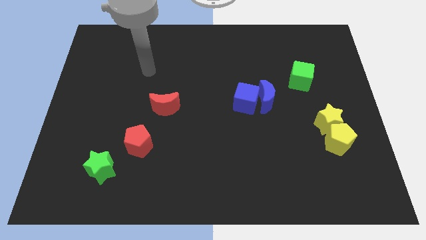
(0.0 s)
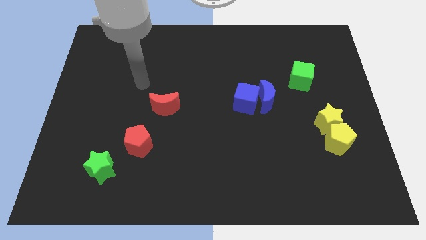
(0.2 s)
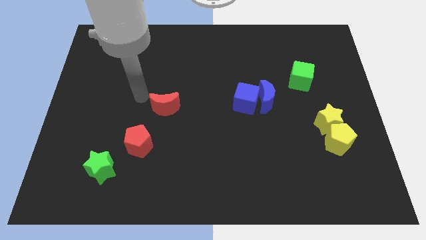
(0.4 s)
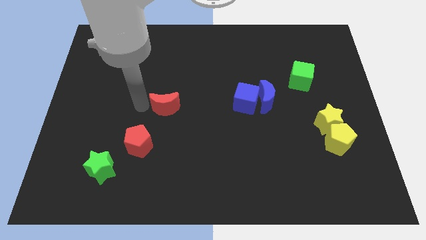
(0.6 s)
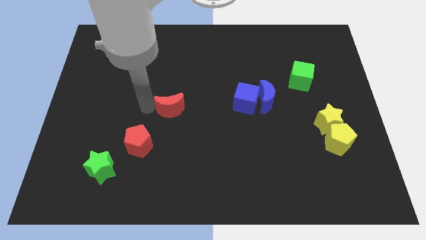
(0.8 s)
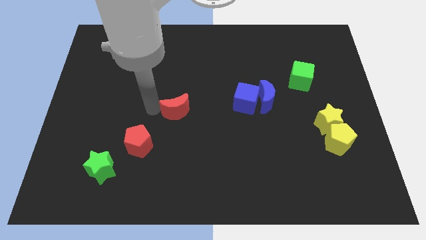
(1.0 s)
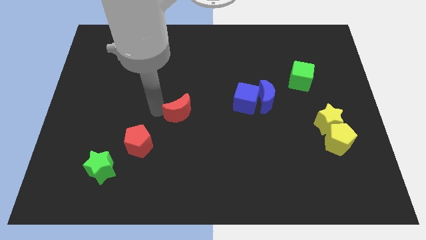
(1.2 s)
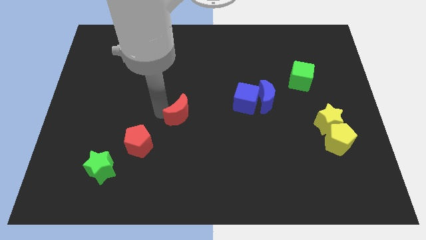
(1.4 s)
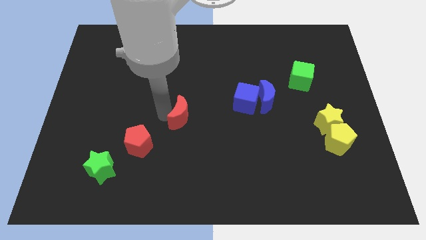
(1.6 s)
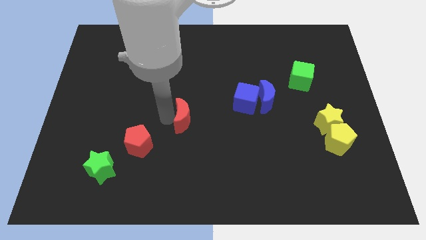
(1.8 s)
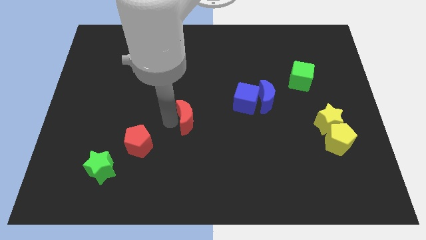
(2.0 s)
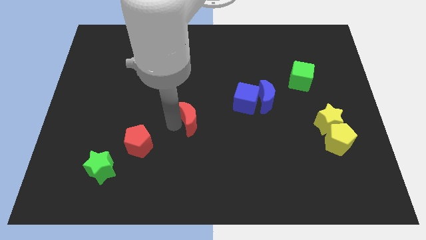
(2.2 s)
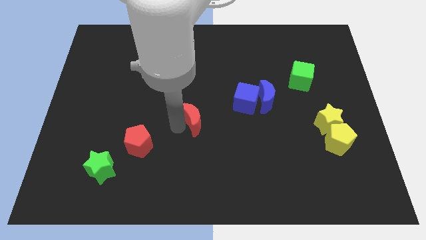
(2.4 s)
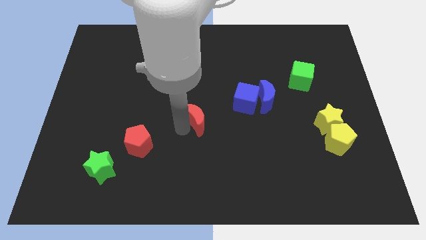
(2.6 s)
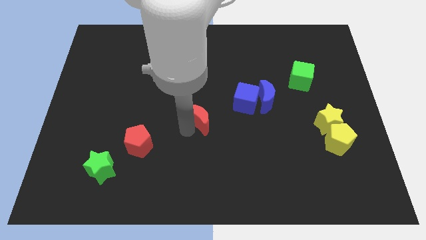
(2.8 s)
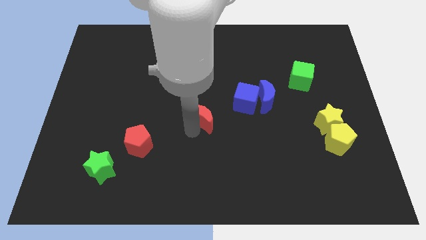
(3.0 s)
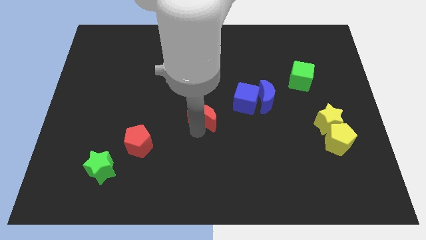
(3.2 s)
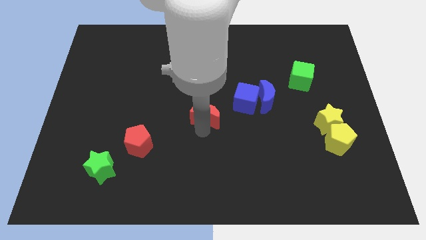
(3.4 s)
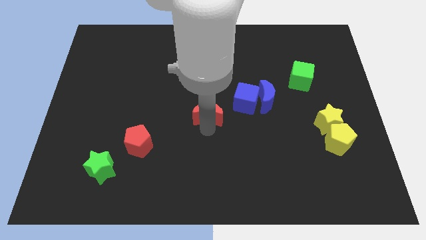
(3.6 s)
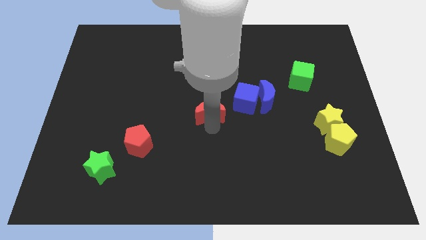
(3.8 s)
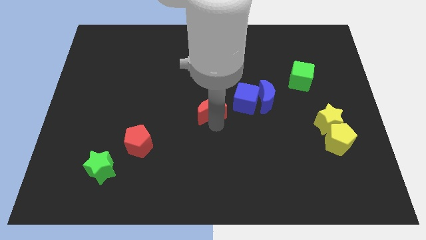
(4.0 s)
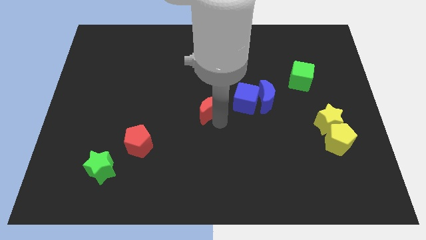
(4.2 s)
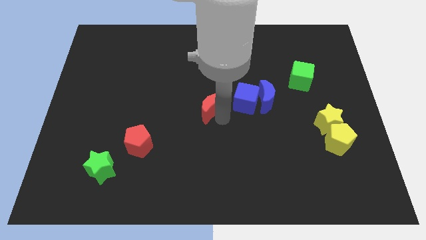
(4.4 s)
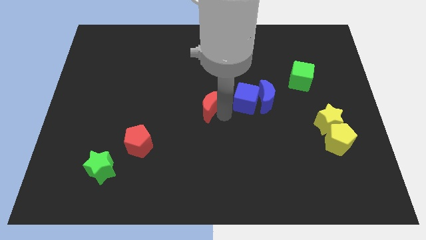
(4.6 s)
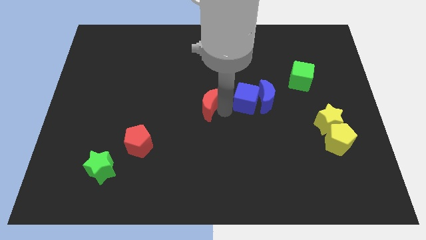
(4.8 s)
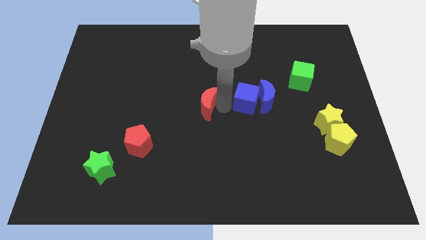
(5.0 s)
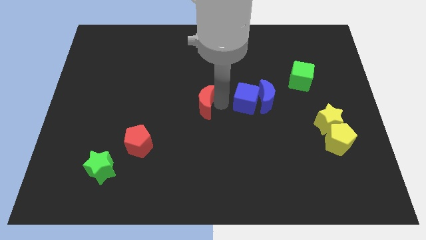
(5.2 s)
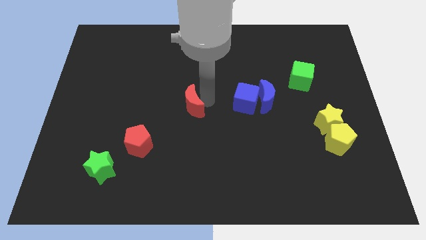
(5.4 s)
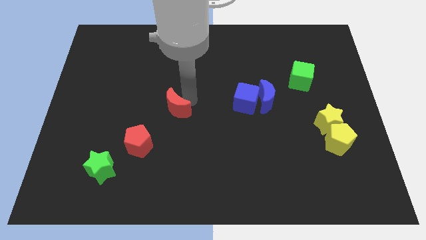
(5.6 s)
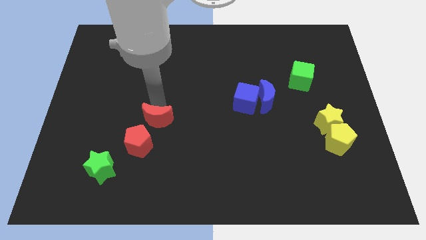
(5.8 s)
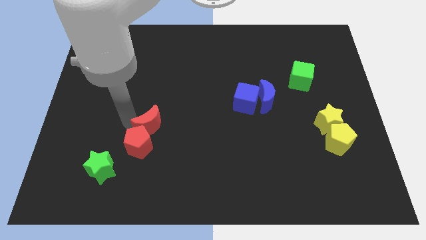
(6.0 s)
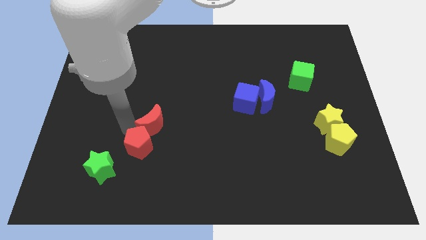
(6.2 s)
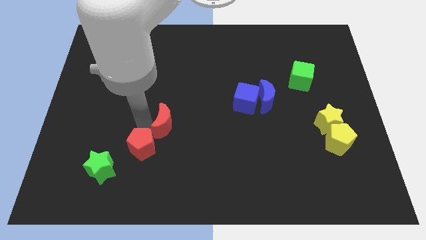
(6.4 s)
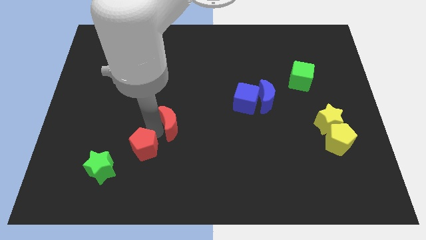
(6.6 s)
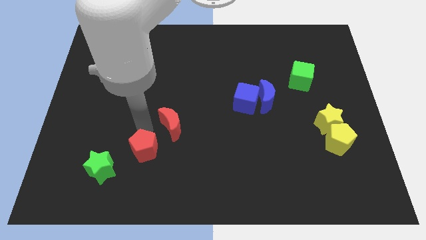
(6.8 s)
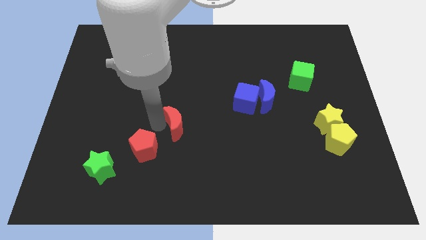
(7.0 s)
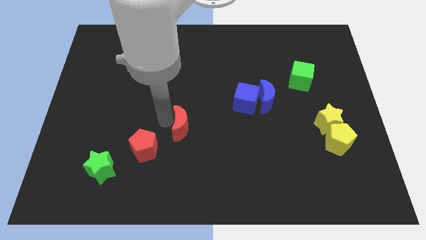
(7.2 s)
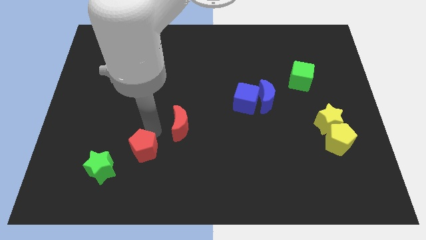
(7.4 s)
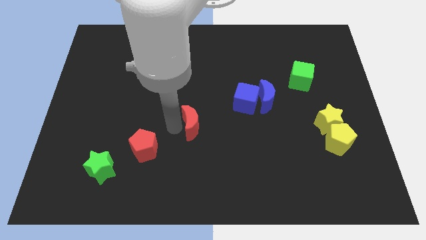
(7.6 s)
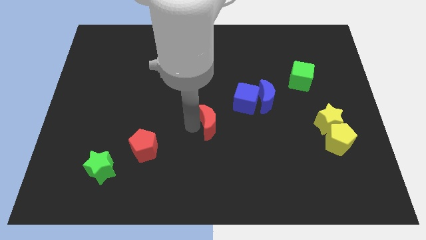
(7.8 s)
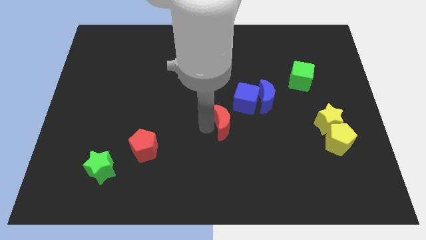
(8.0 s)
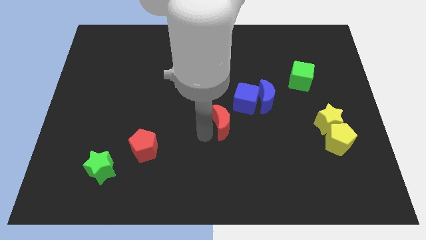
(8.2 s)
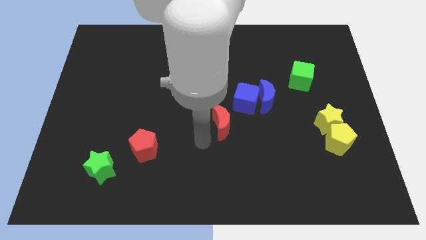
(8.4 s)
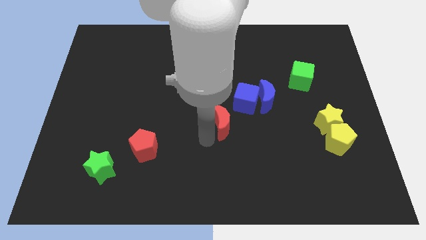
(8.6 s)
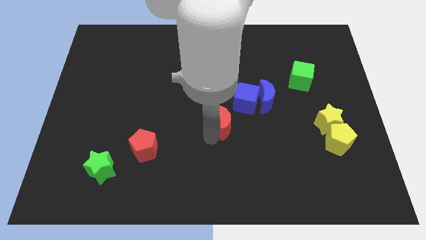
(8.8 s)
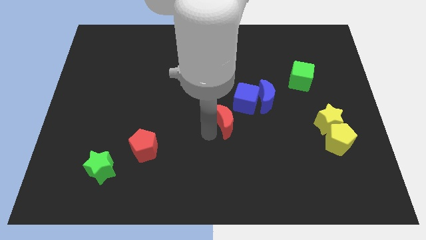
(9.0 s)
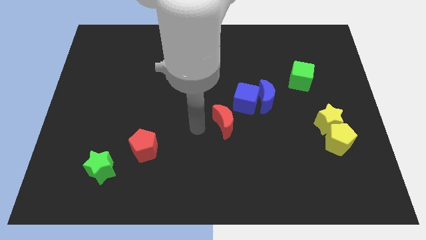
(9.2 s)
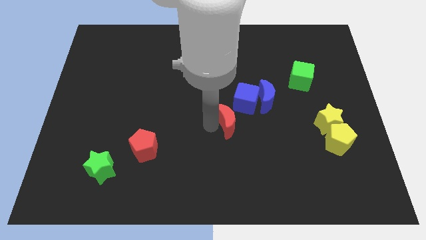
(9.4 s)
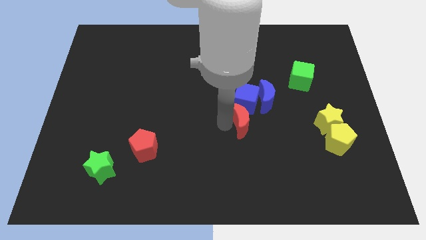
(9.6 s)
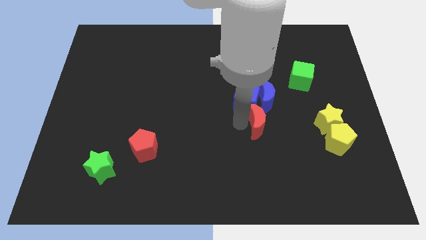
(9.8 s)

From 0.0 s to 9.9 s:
move the red moon to the right

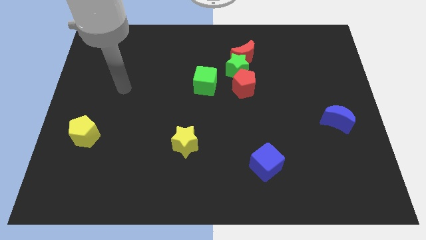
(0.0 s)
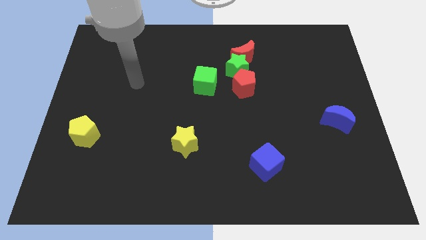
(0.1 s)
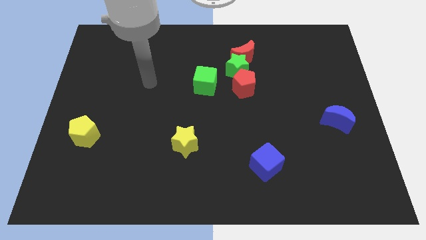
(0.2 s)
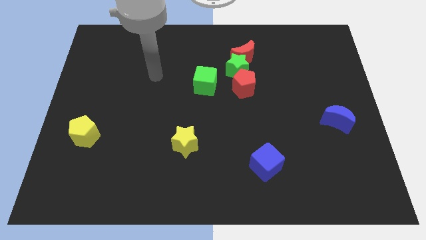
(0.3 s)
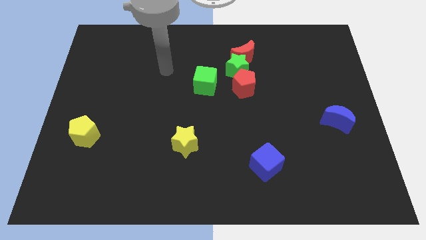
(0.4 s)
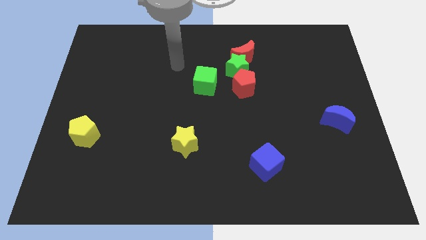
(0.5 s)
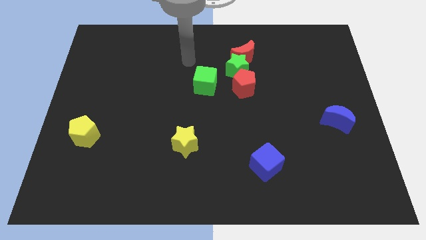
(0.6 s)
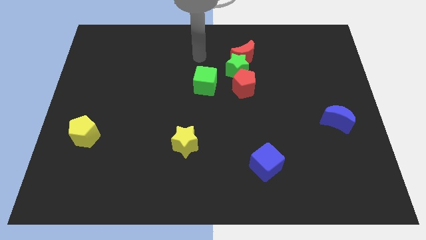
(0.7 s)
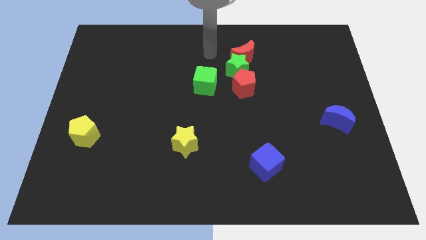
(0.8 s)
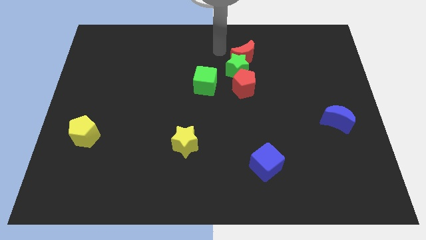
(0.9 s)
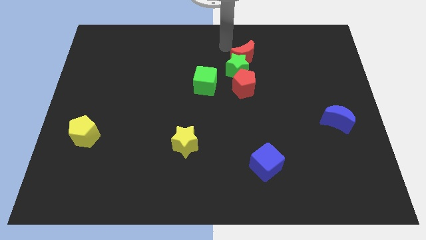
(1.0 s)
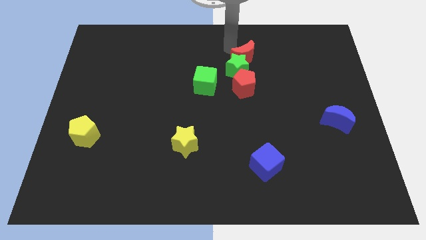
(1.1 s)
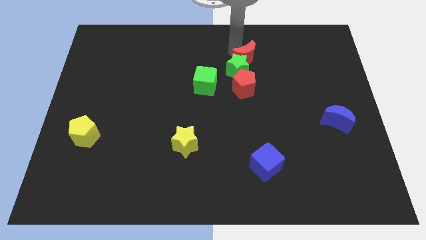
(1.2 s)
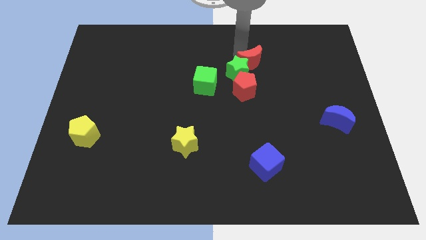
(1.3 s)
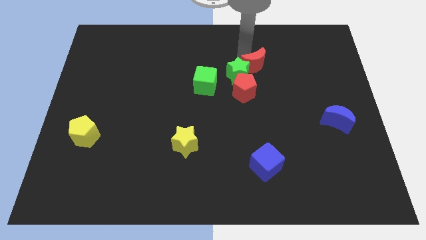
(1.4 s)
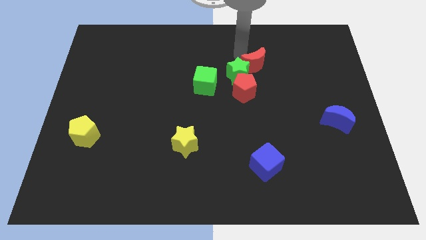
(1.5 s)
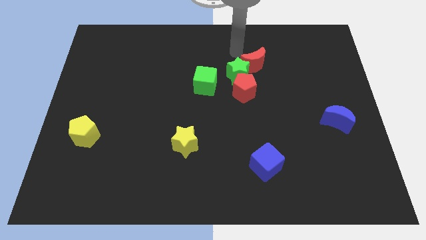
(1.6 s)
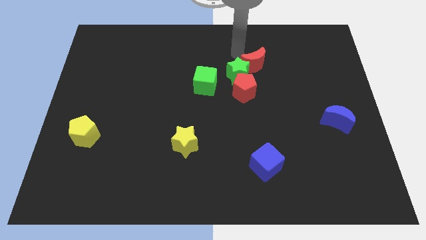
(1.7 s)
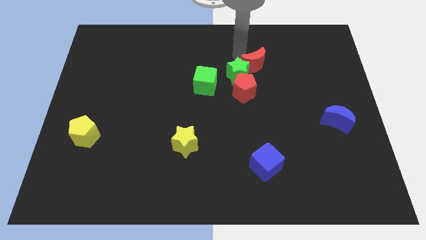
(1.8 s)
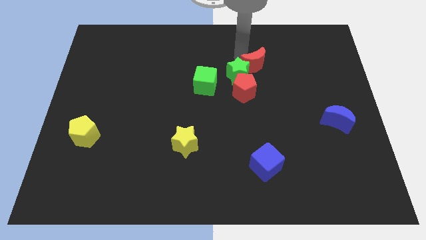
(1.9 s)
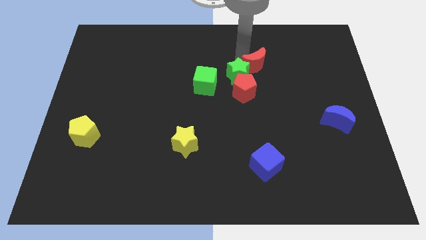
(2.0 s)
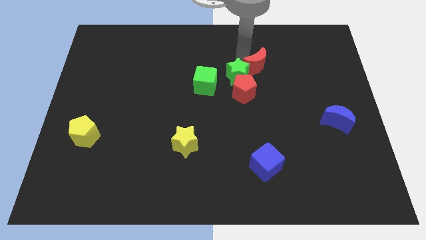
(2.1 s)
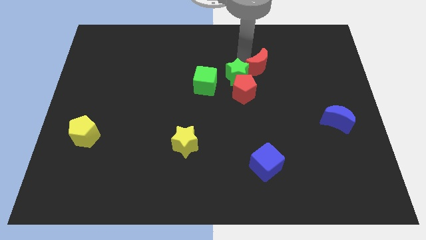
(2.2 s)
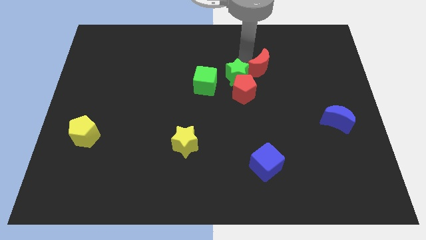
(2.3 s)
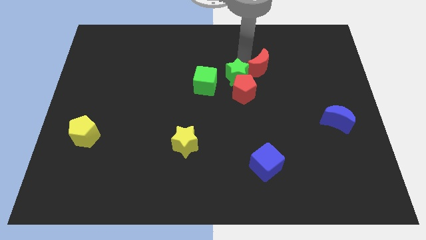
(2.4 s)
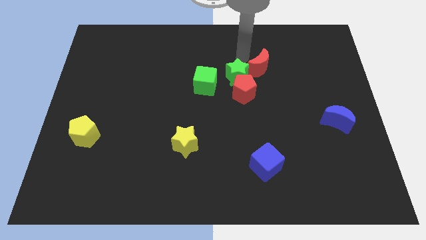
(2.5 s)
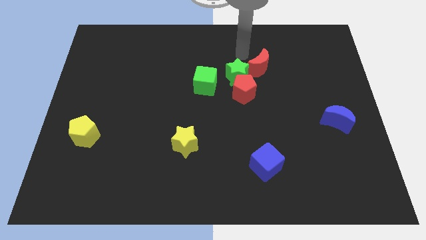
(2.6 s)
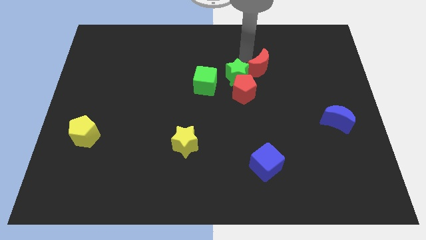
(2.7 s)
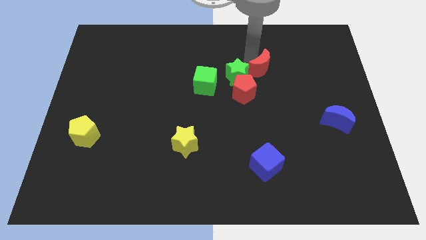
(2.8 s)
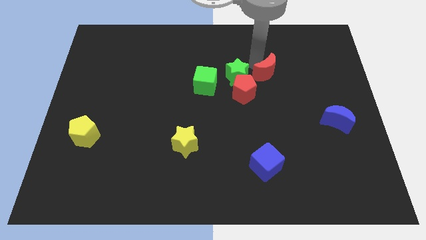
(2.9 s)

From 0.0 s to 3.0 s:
push the red moon downwards and to the right a little
